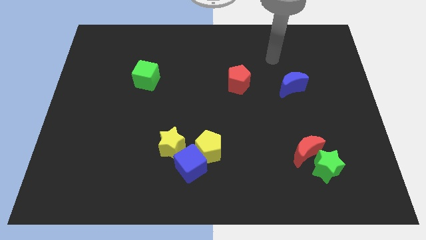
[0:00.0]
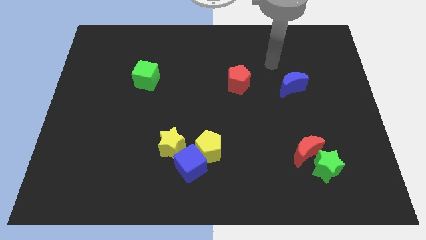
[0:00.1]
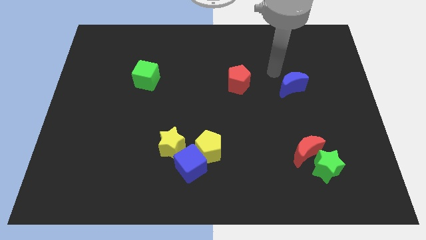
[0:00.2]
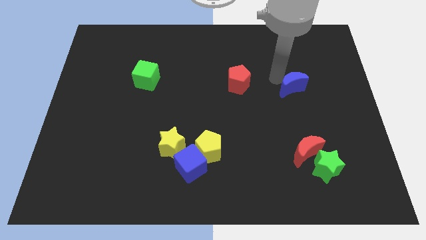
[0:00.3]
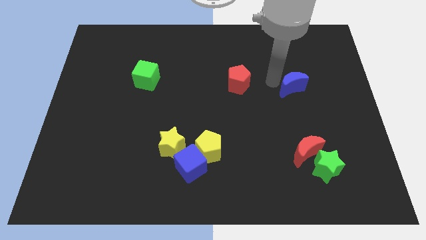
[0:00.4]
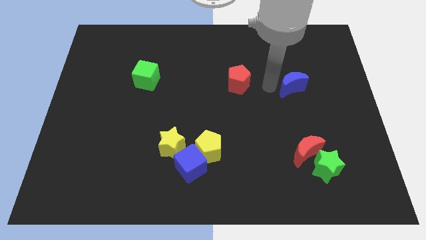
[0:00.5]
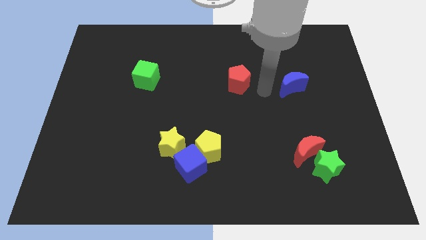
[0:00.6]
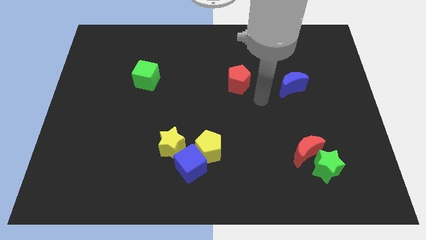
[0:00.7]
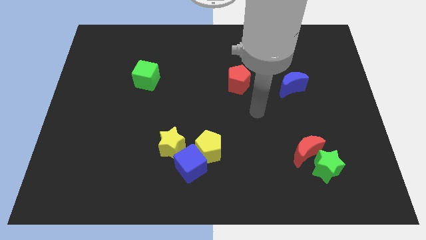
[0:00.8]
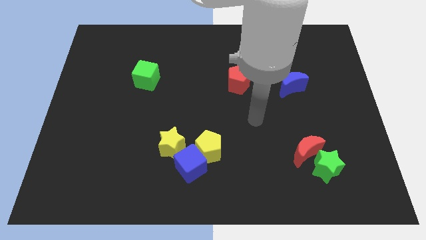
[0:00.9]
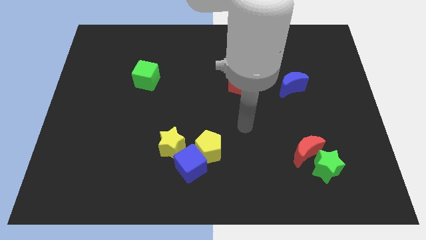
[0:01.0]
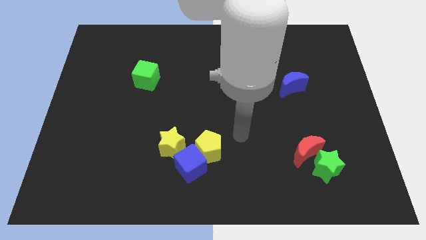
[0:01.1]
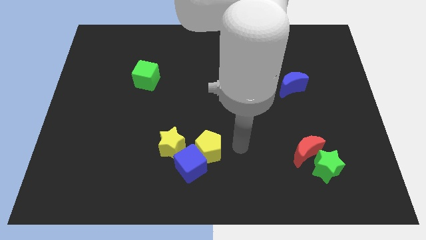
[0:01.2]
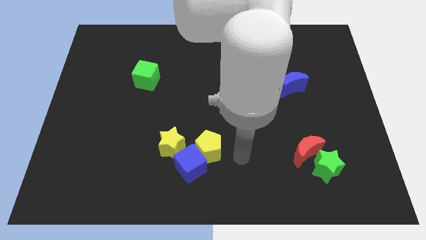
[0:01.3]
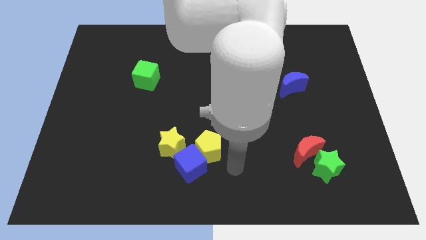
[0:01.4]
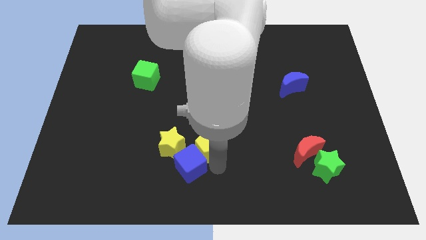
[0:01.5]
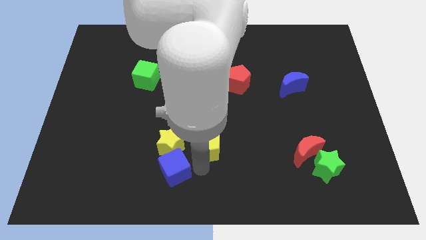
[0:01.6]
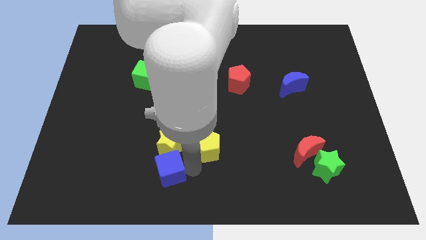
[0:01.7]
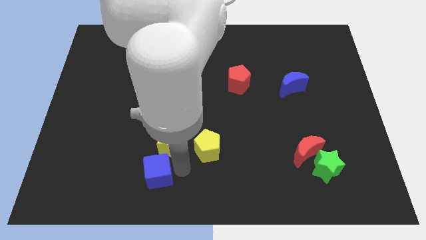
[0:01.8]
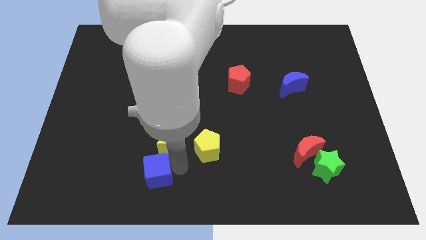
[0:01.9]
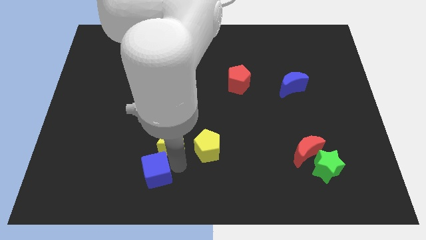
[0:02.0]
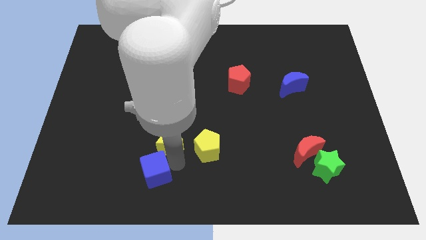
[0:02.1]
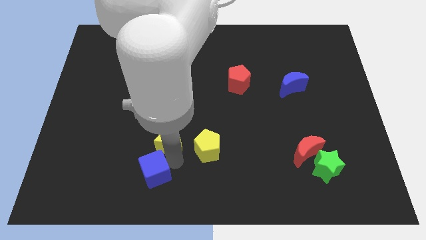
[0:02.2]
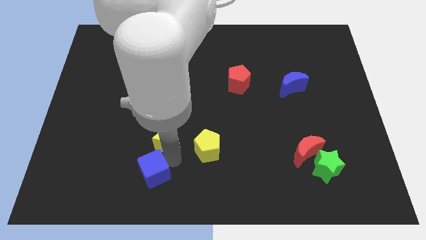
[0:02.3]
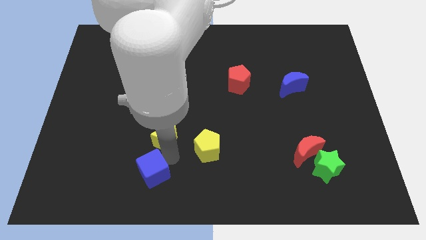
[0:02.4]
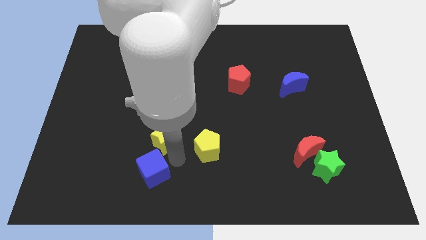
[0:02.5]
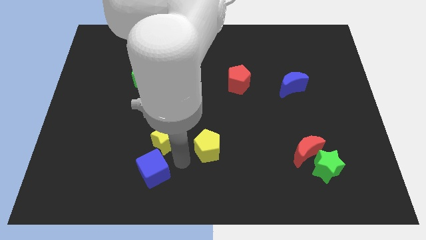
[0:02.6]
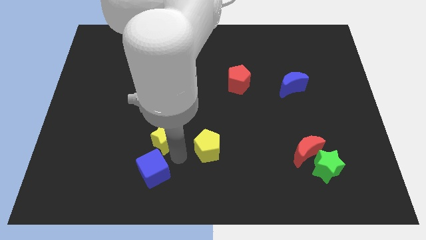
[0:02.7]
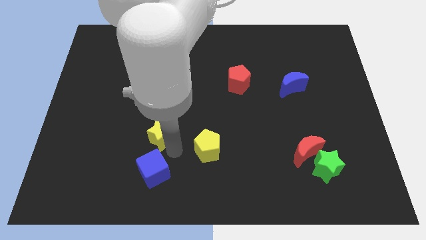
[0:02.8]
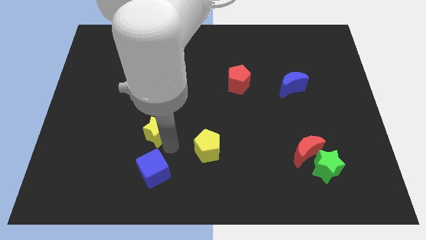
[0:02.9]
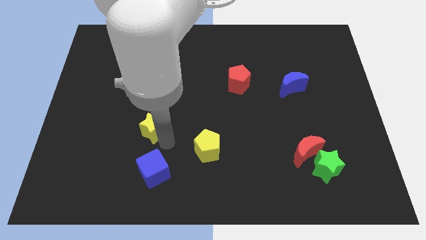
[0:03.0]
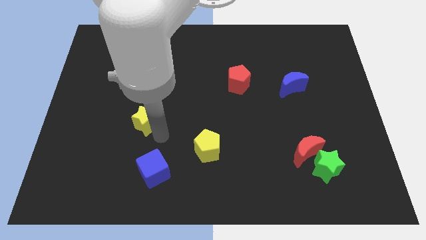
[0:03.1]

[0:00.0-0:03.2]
push the yellow star somewhat upwards and left diagonally

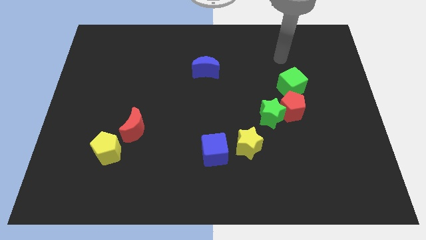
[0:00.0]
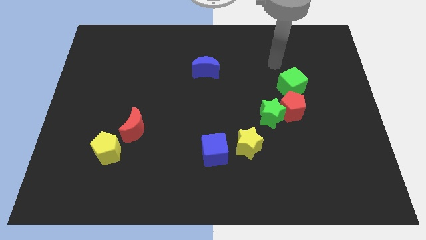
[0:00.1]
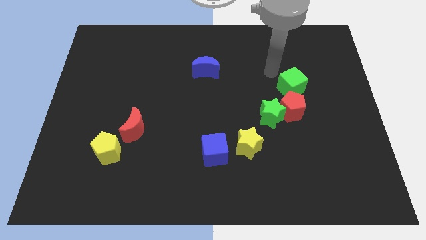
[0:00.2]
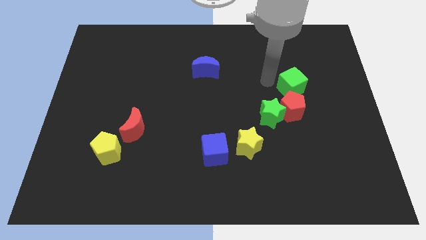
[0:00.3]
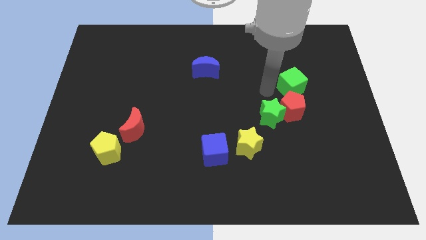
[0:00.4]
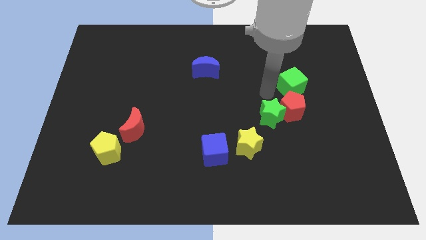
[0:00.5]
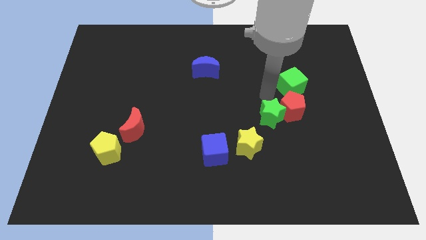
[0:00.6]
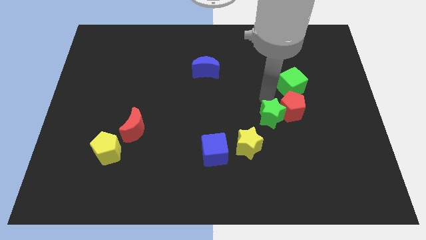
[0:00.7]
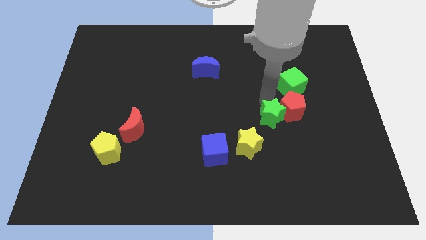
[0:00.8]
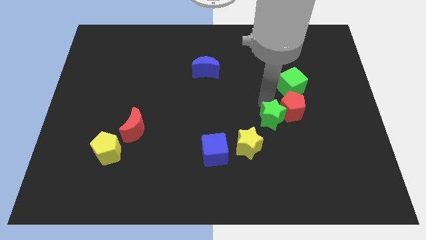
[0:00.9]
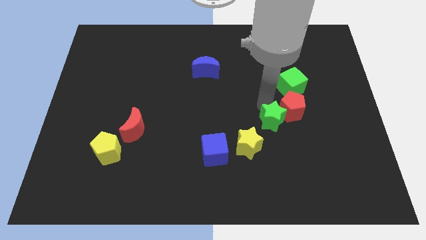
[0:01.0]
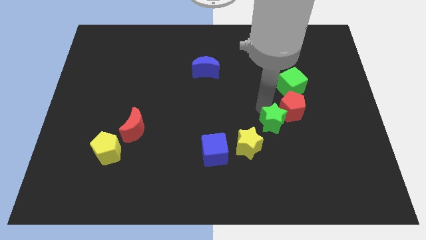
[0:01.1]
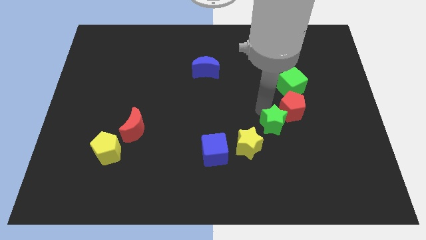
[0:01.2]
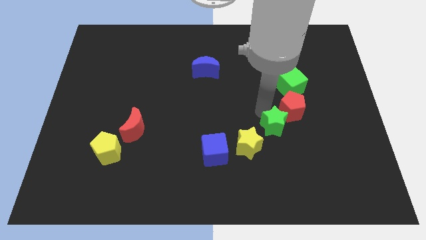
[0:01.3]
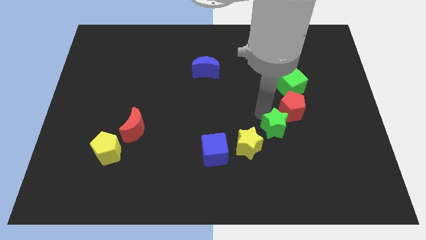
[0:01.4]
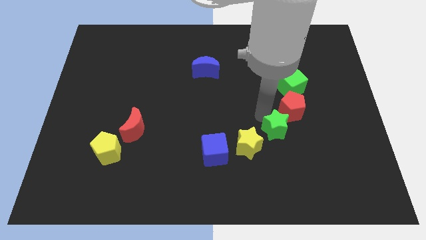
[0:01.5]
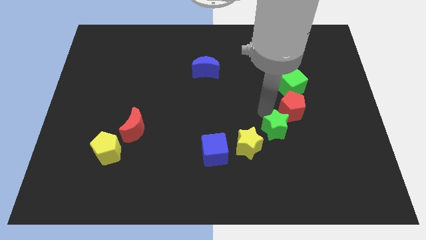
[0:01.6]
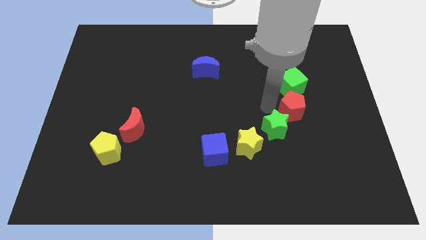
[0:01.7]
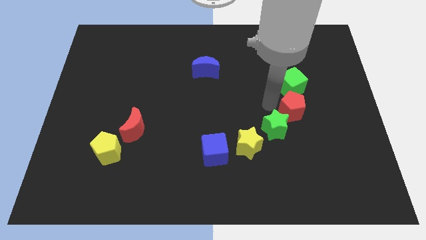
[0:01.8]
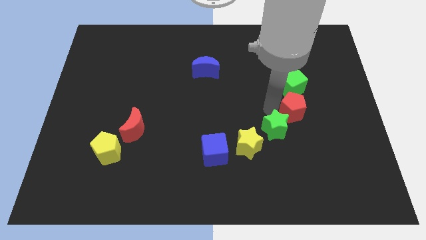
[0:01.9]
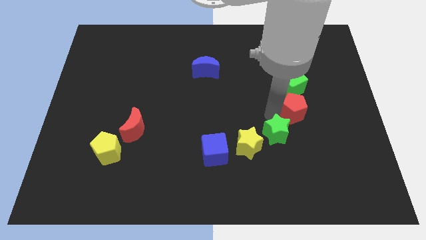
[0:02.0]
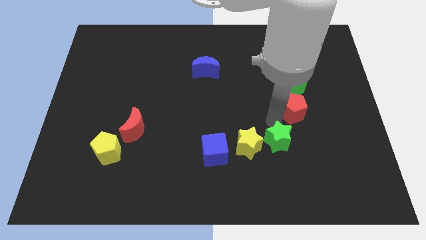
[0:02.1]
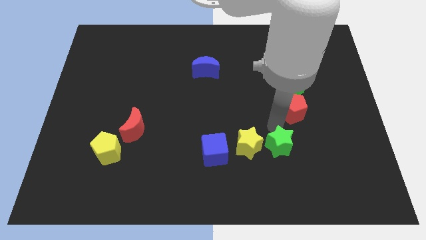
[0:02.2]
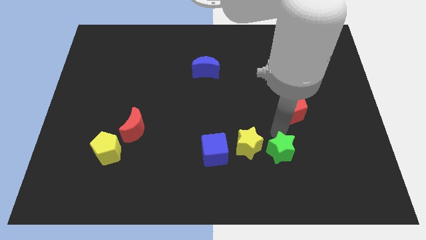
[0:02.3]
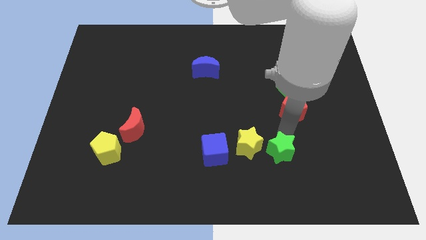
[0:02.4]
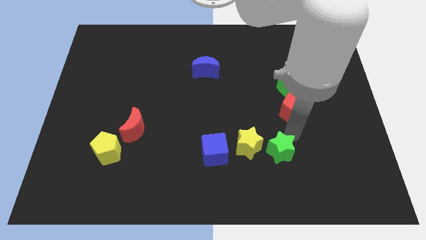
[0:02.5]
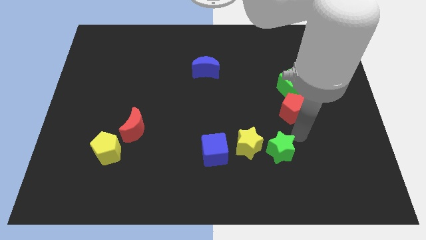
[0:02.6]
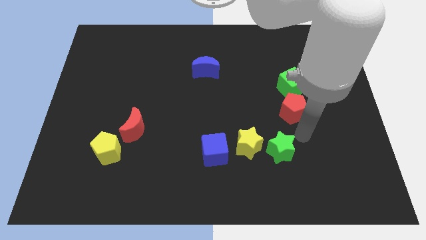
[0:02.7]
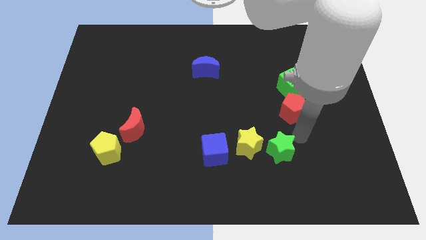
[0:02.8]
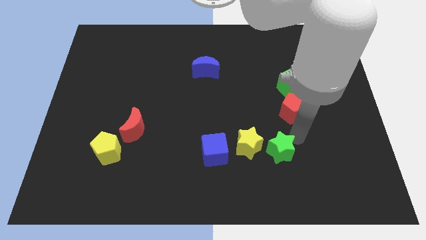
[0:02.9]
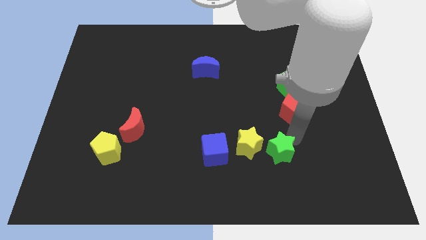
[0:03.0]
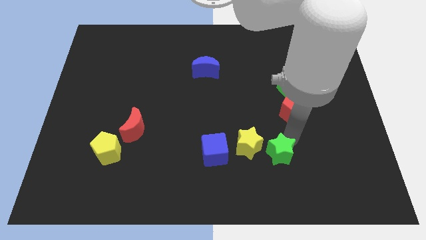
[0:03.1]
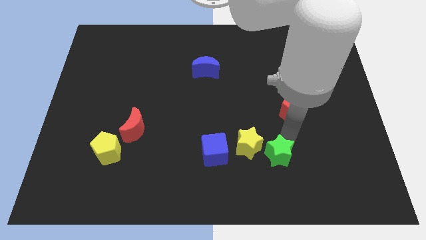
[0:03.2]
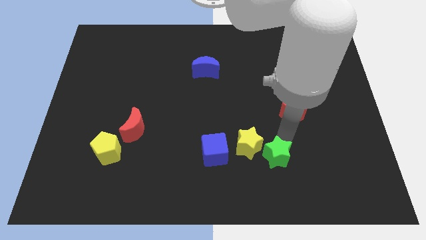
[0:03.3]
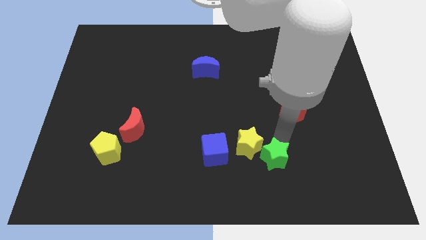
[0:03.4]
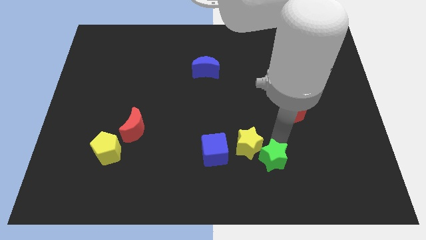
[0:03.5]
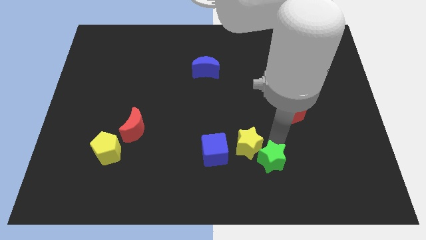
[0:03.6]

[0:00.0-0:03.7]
move the green star slightly diagonally downwards and to the left

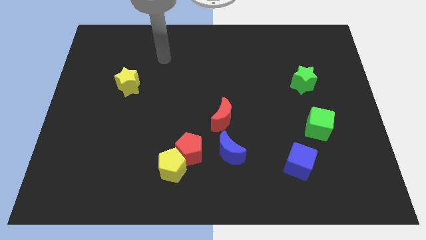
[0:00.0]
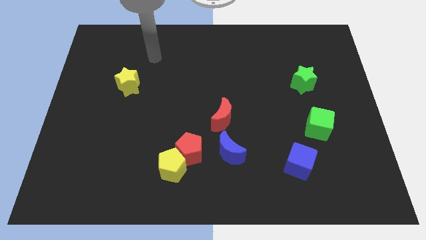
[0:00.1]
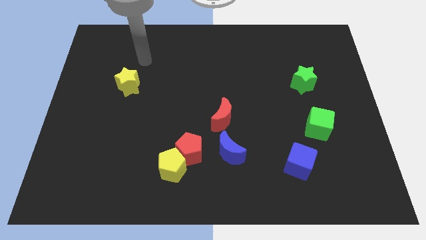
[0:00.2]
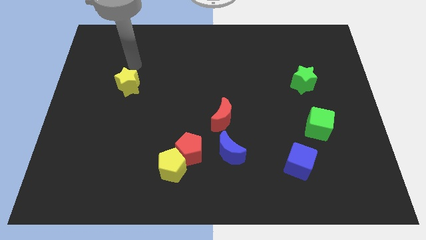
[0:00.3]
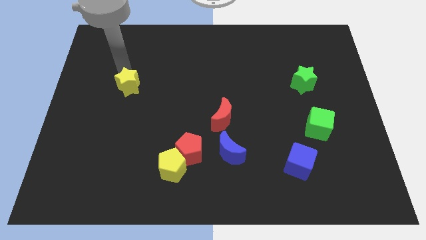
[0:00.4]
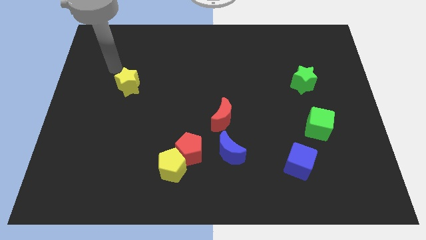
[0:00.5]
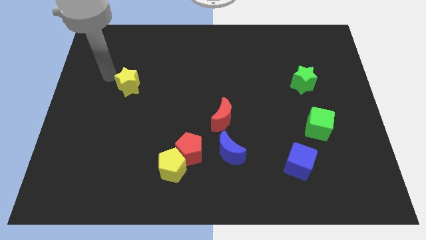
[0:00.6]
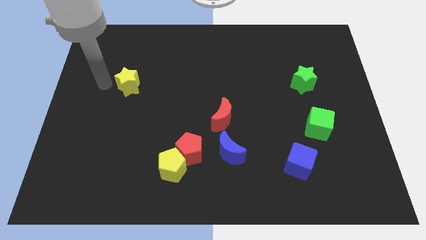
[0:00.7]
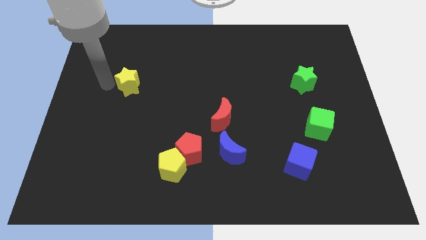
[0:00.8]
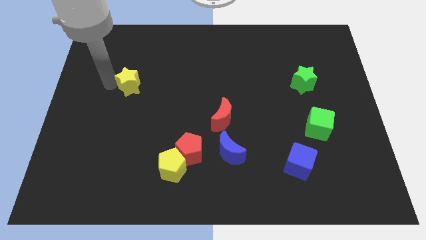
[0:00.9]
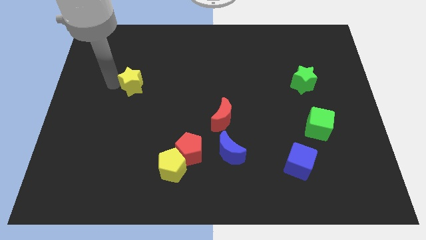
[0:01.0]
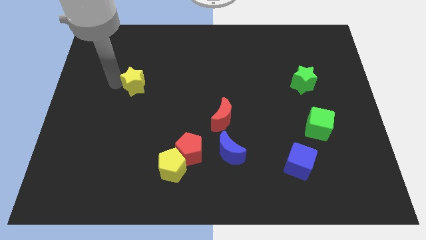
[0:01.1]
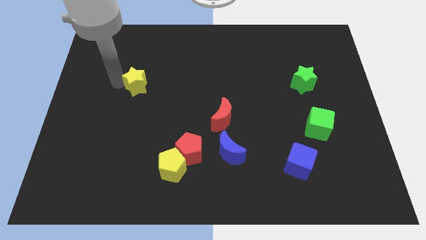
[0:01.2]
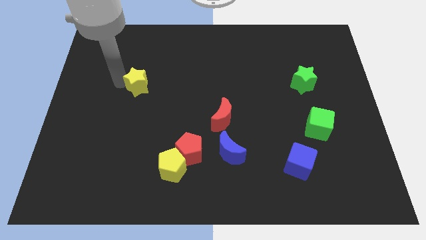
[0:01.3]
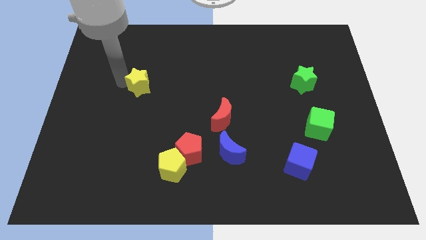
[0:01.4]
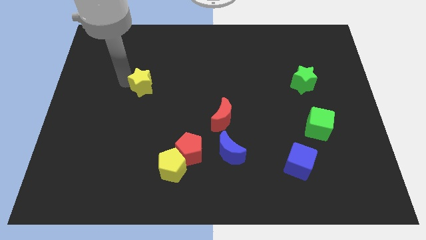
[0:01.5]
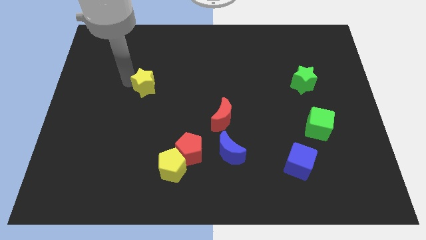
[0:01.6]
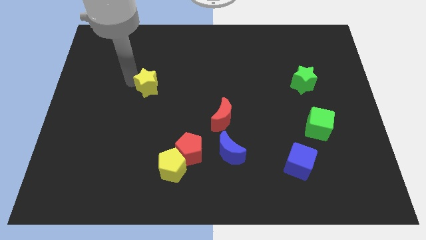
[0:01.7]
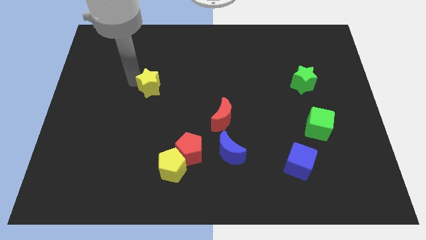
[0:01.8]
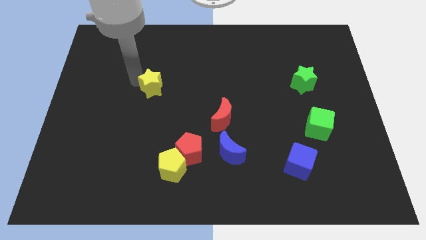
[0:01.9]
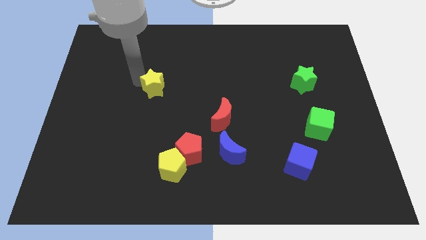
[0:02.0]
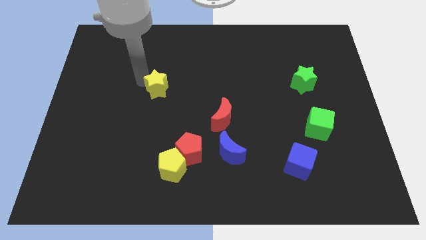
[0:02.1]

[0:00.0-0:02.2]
slightly push the yellow star right
